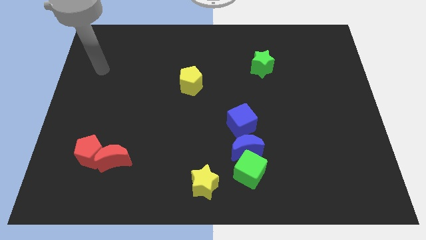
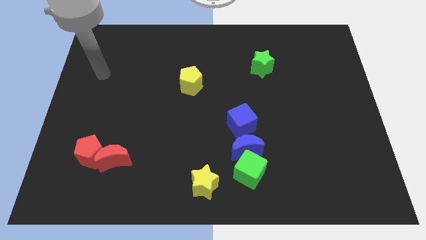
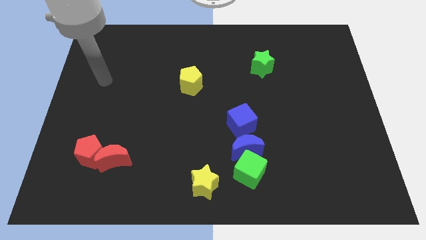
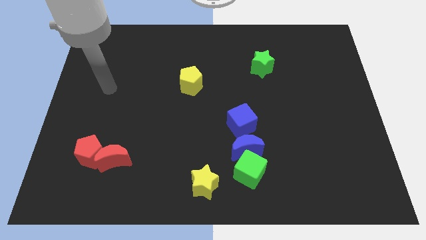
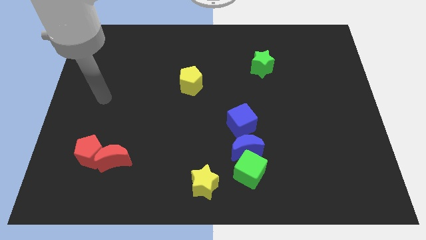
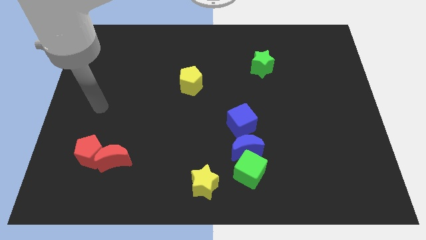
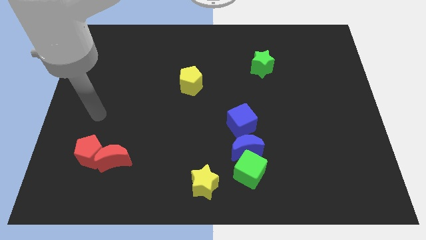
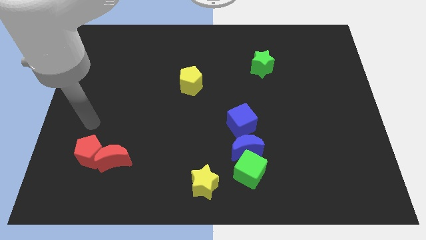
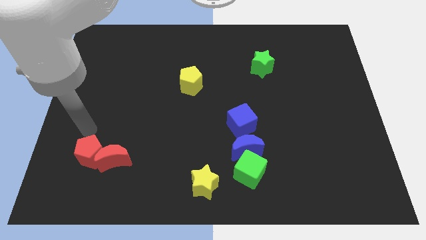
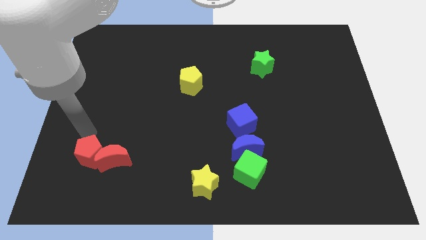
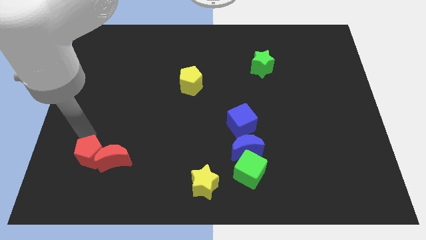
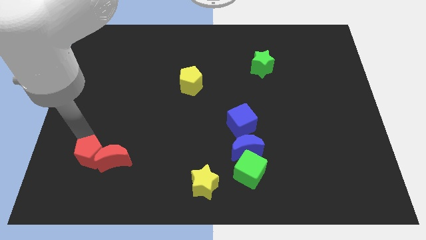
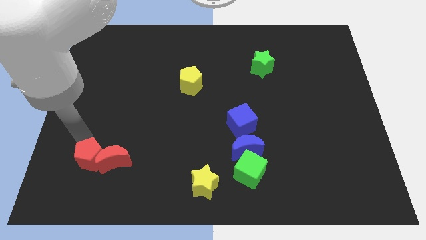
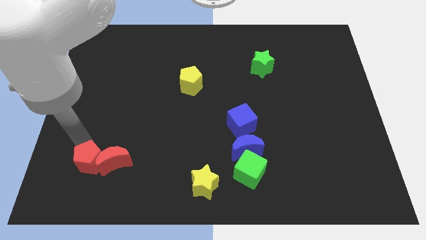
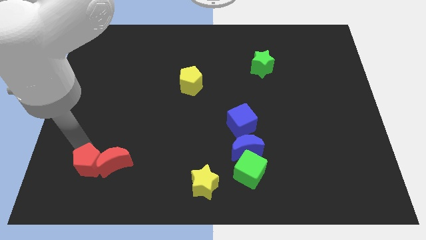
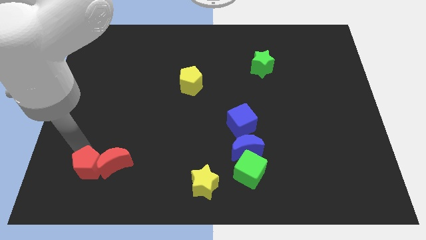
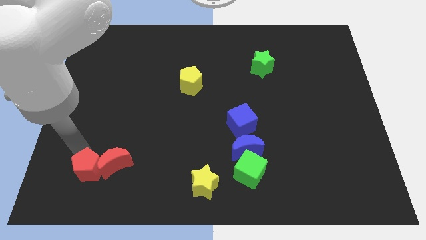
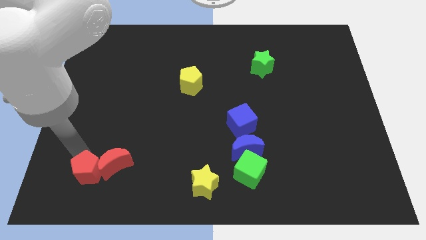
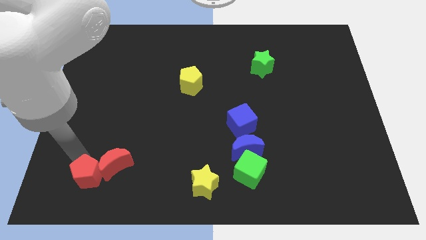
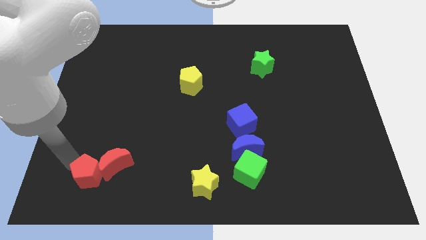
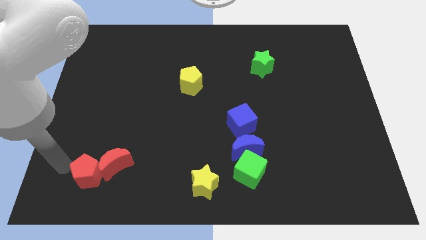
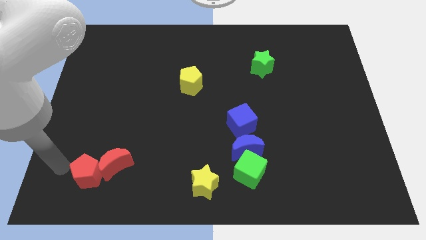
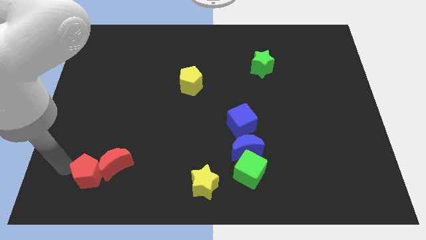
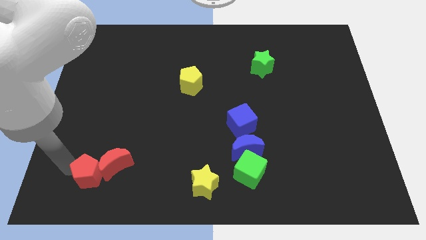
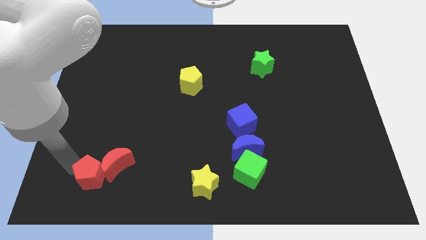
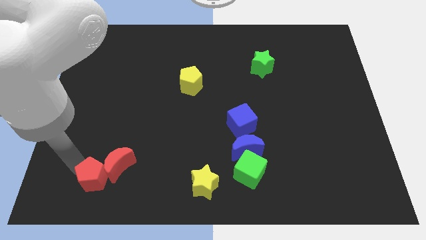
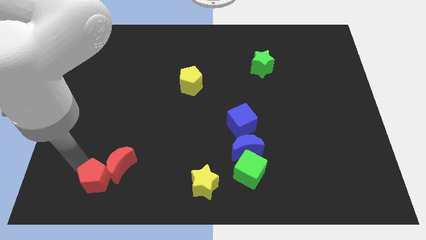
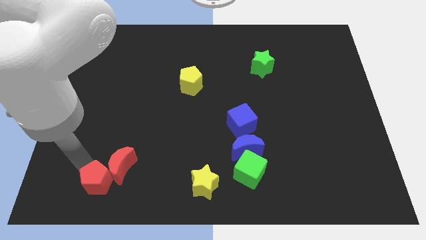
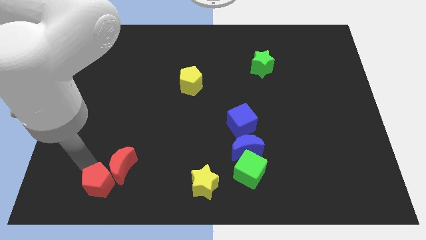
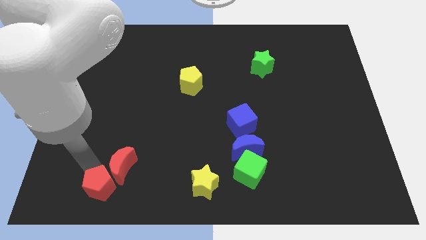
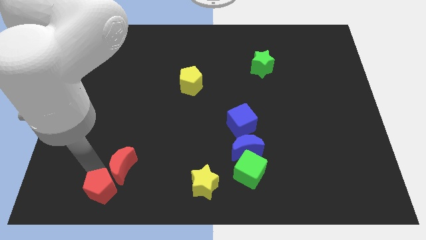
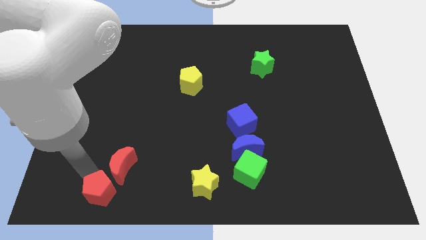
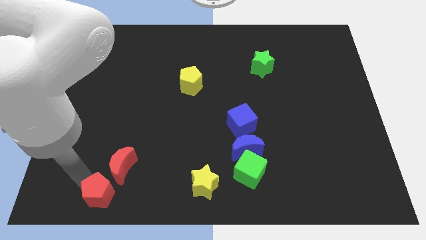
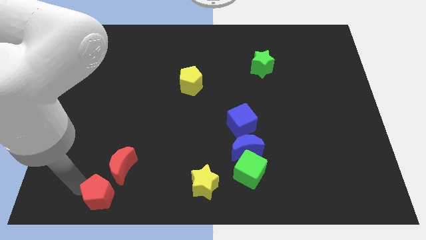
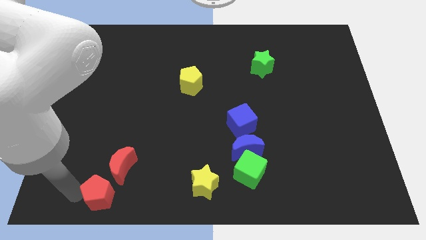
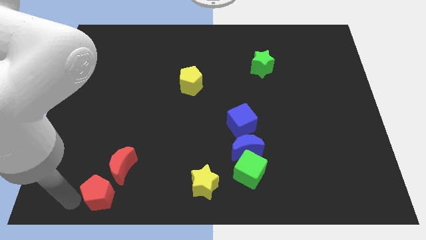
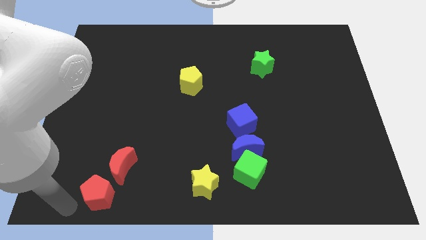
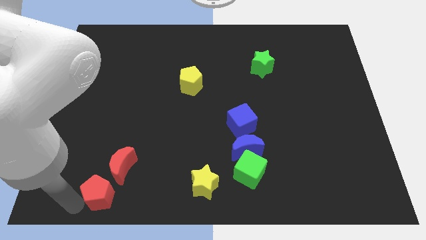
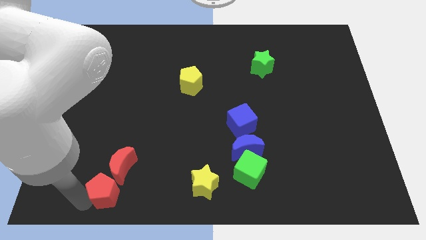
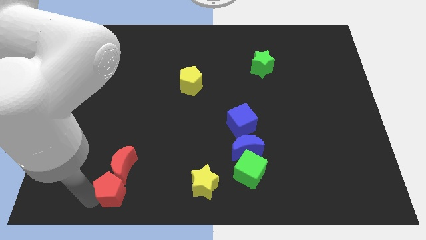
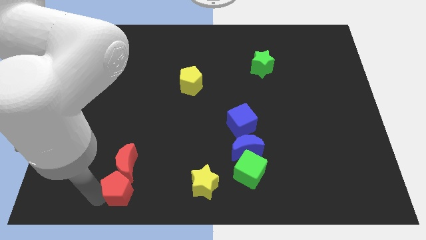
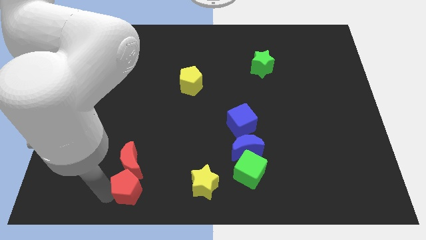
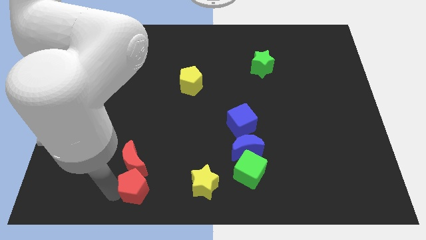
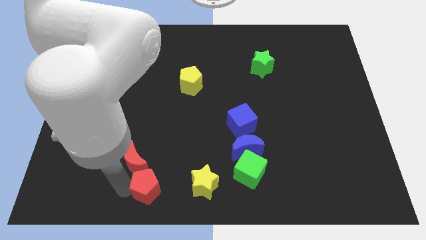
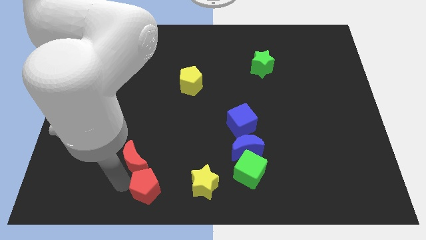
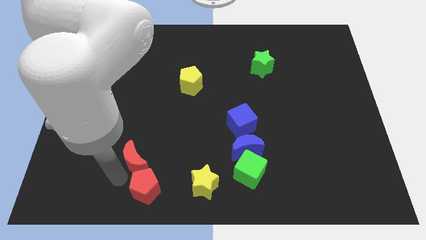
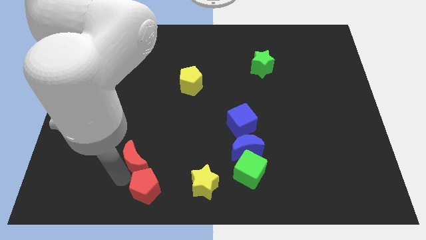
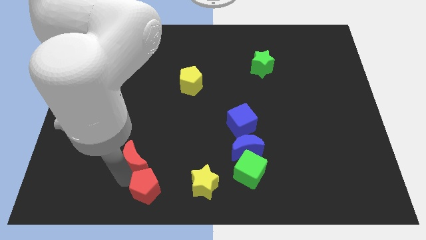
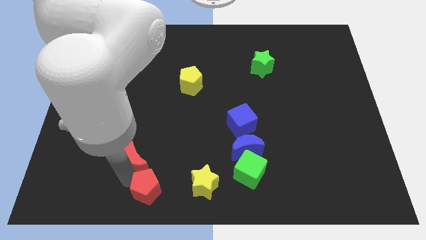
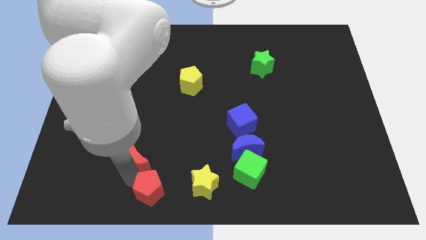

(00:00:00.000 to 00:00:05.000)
slide the red pentagon to the bottom

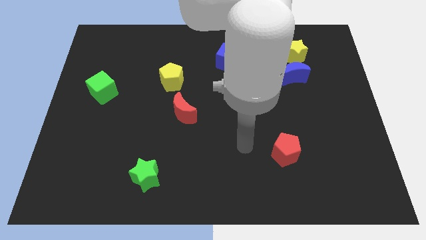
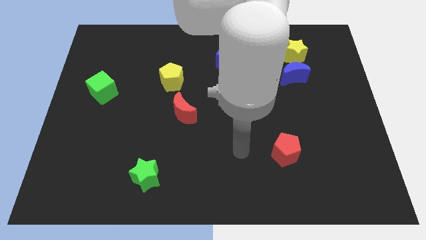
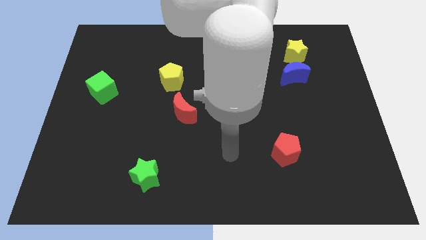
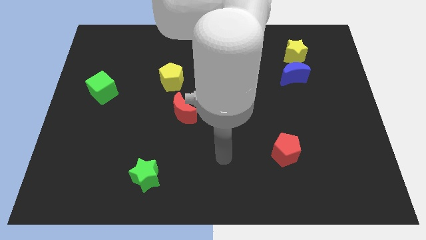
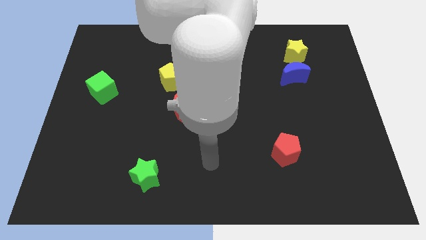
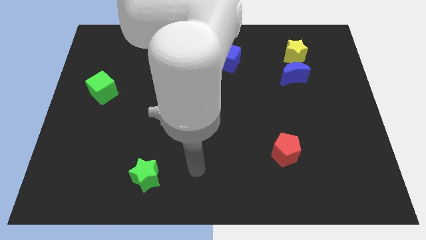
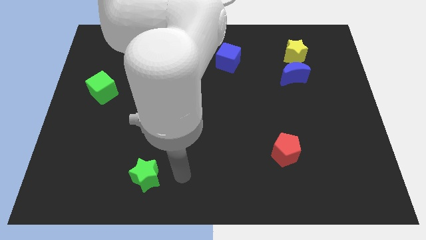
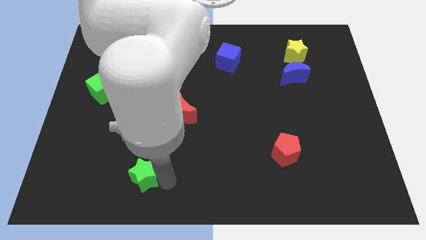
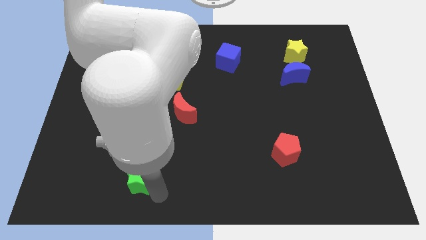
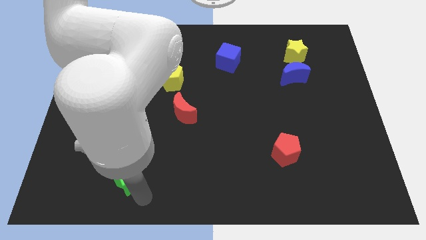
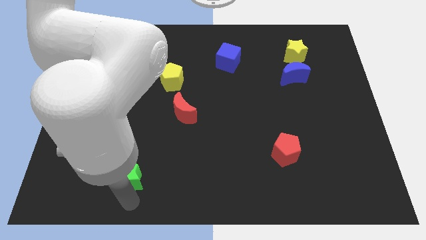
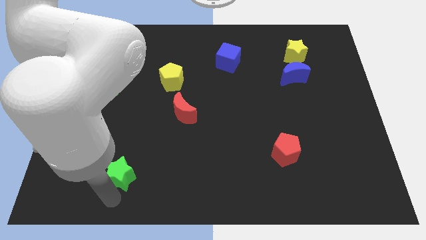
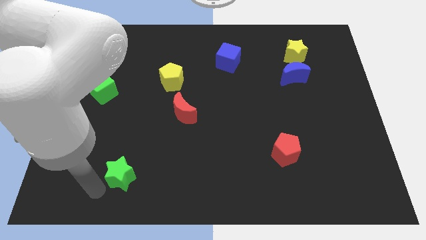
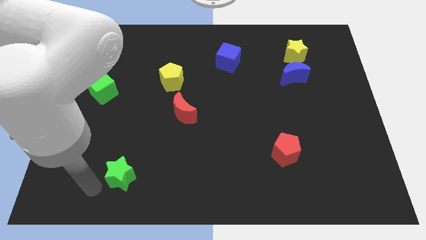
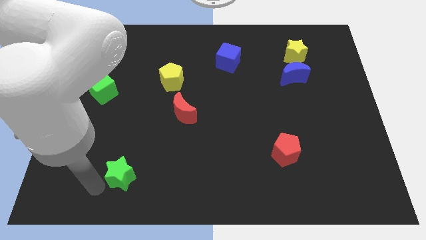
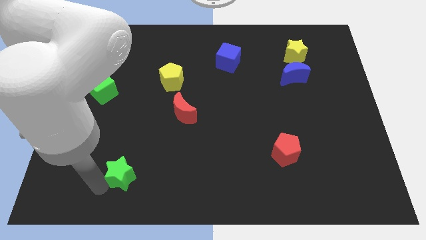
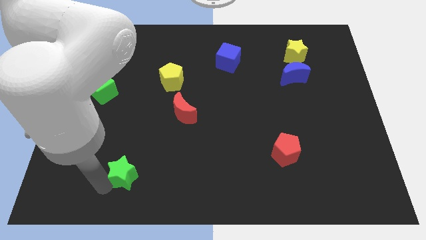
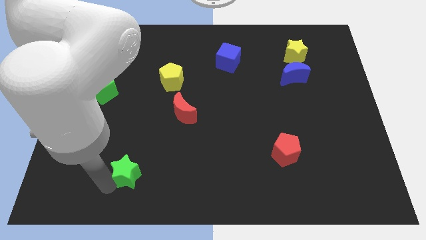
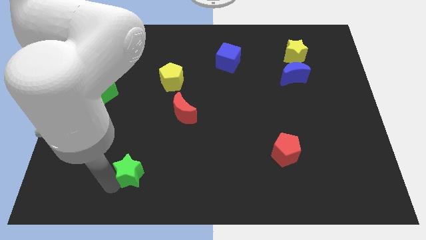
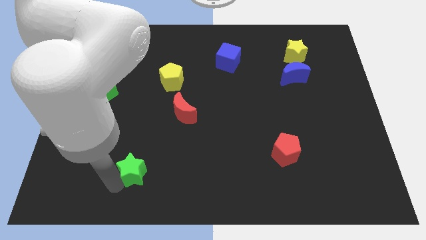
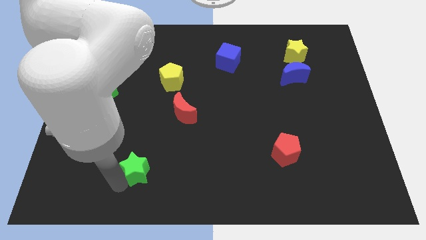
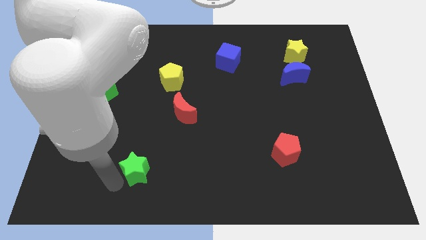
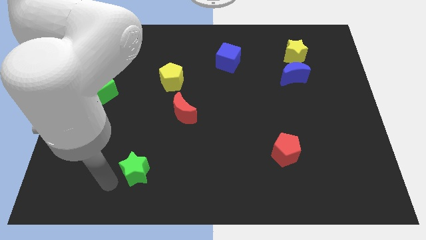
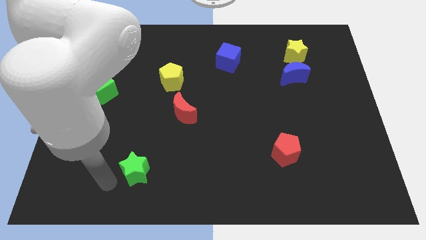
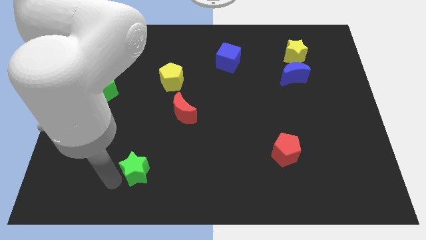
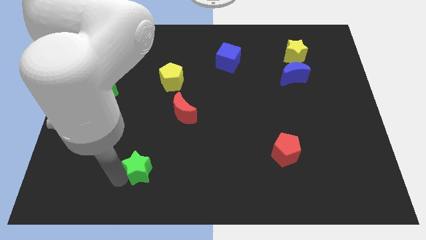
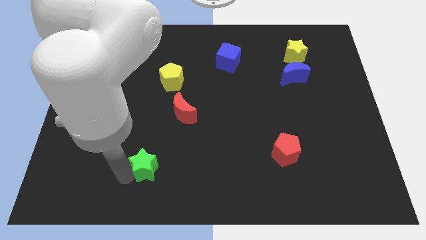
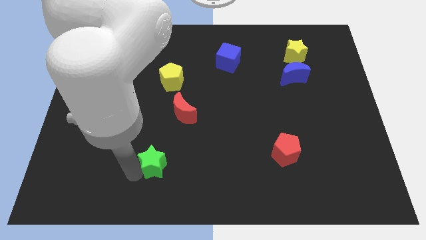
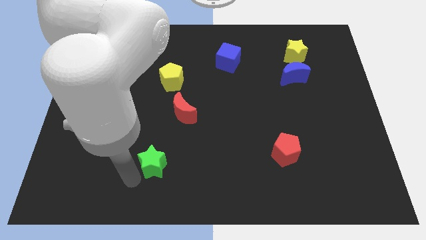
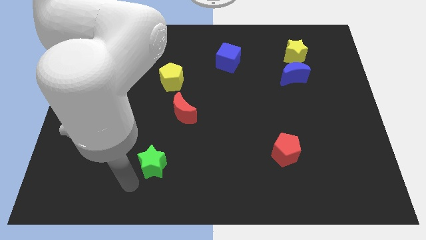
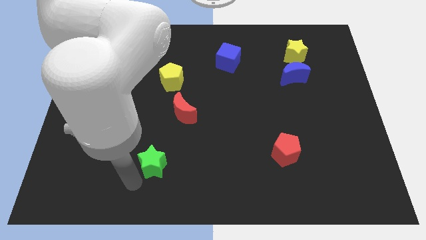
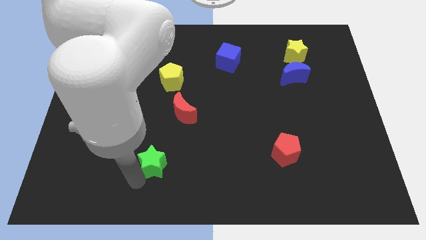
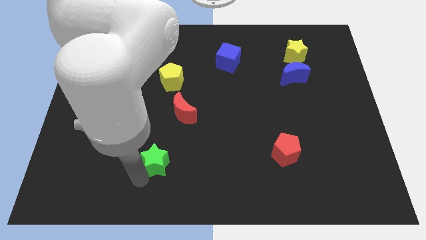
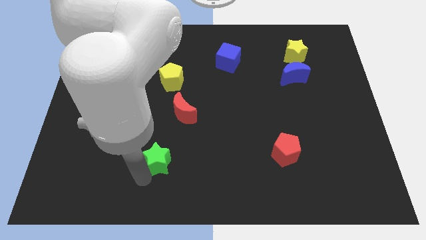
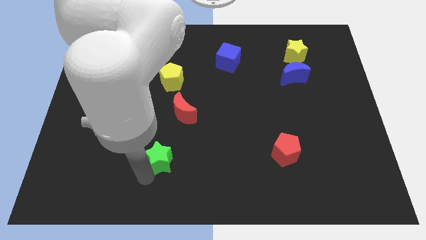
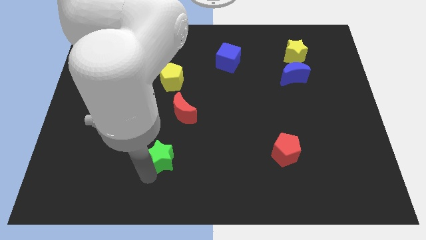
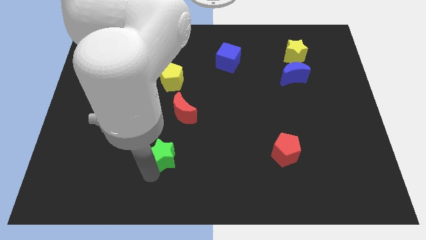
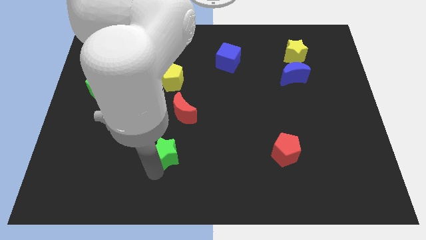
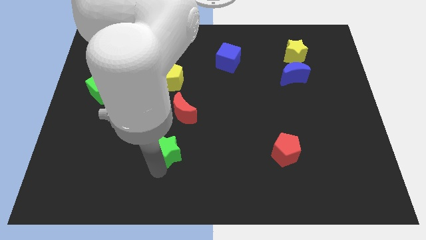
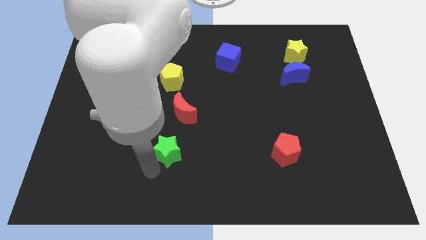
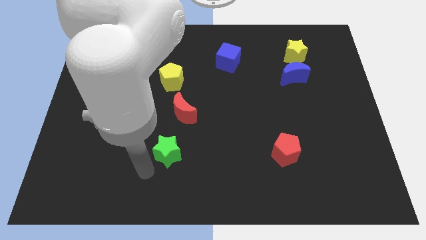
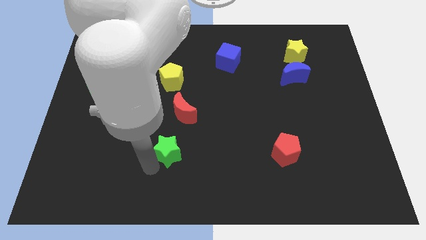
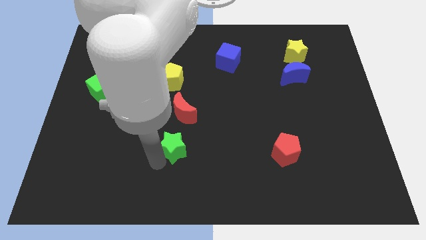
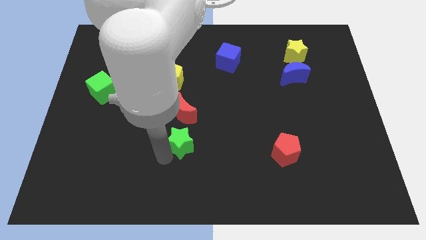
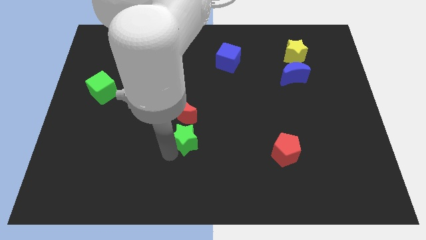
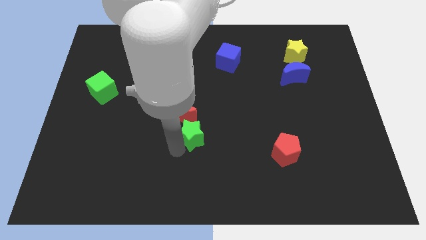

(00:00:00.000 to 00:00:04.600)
put the green star to the middle
